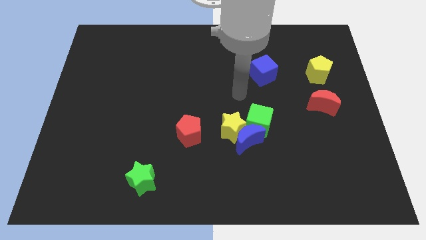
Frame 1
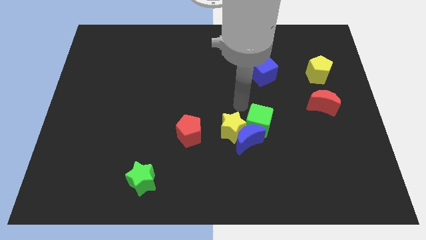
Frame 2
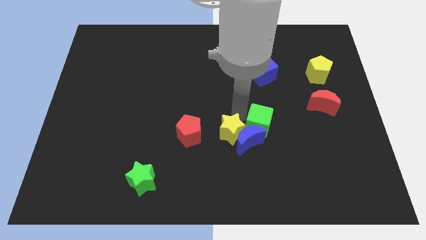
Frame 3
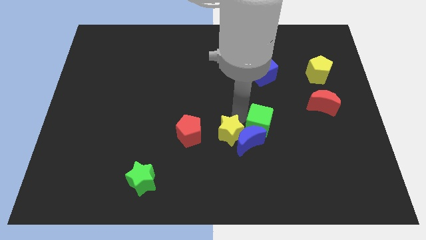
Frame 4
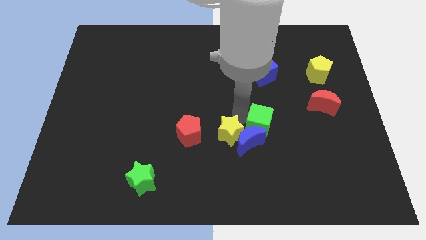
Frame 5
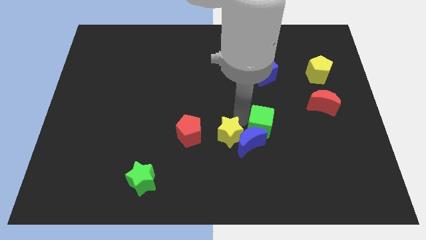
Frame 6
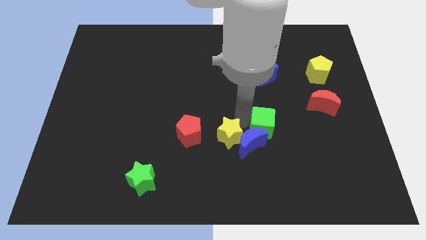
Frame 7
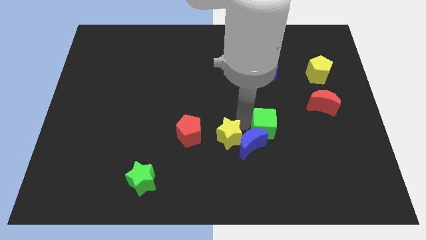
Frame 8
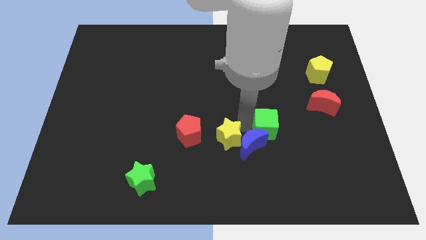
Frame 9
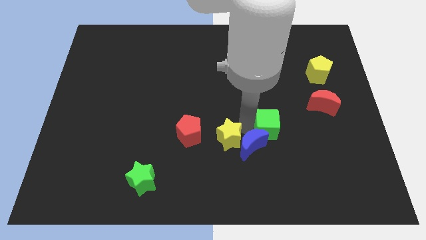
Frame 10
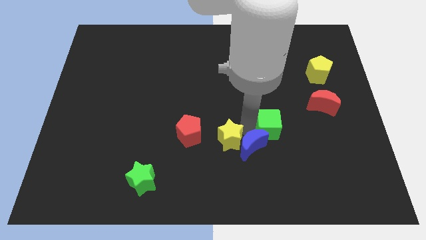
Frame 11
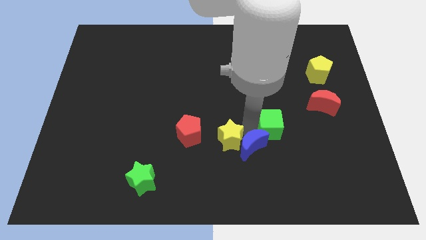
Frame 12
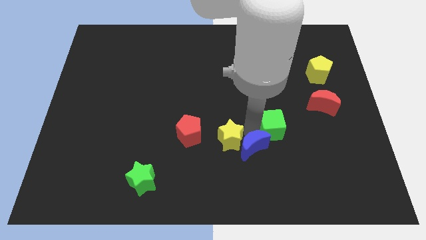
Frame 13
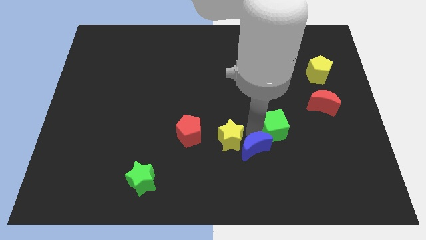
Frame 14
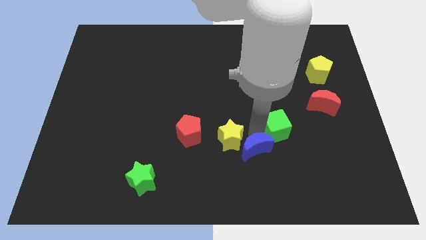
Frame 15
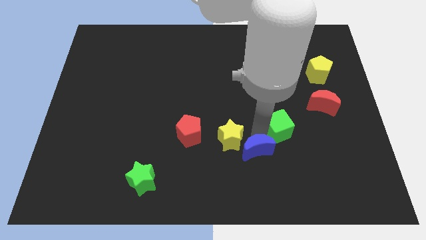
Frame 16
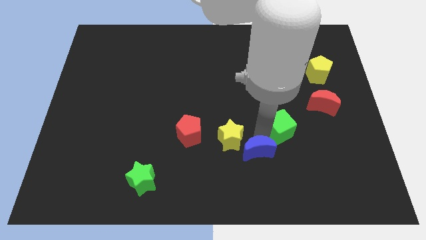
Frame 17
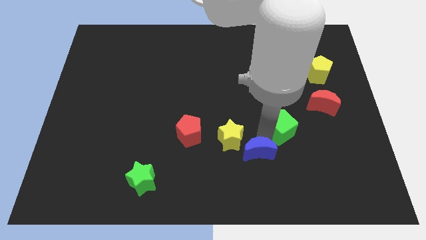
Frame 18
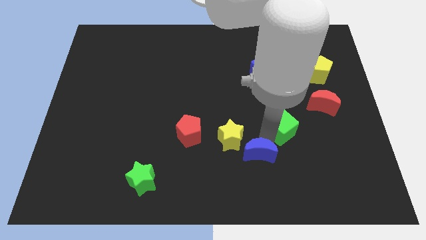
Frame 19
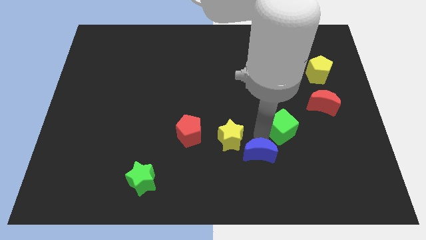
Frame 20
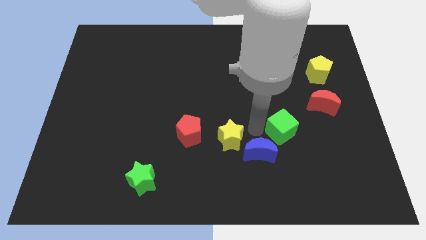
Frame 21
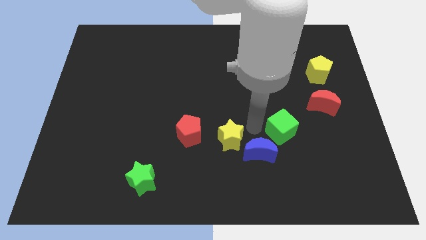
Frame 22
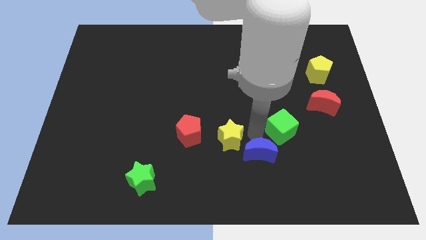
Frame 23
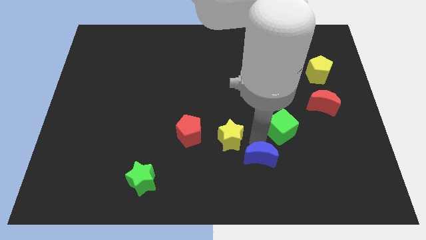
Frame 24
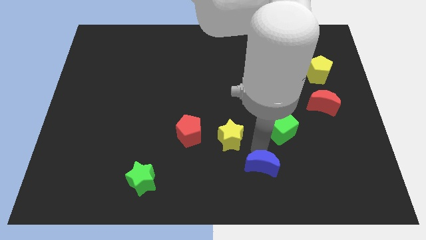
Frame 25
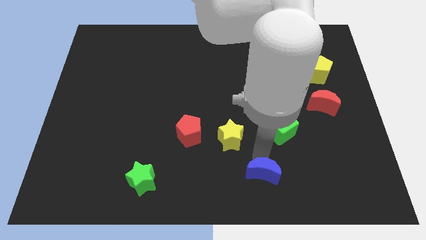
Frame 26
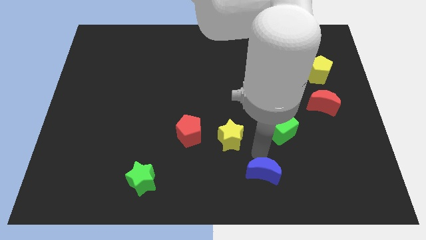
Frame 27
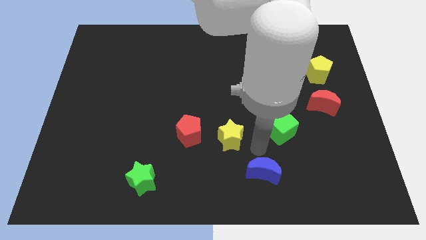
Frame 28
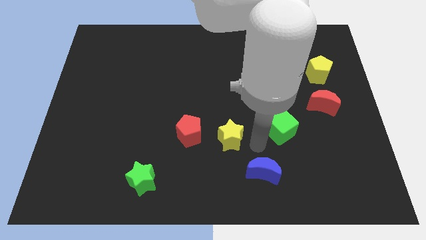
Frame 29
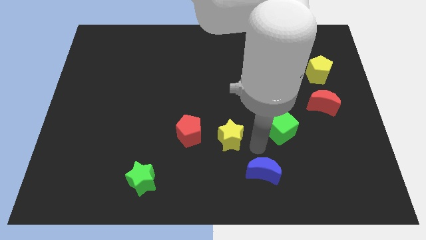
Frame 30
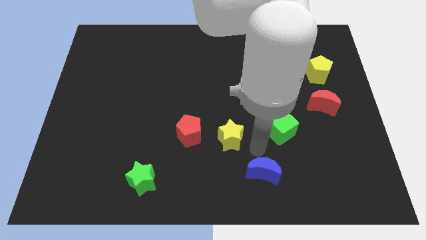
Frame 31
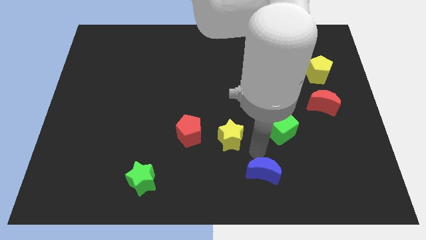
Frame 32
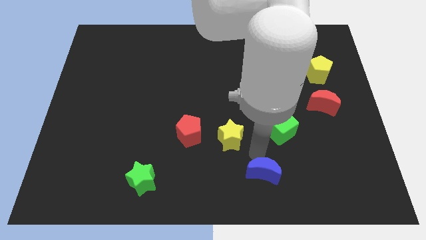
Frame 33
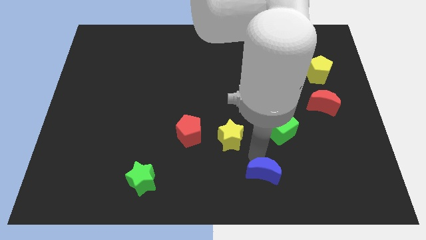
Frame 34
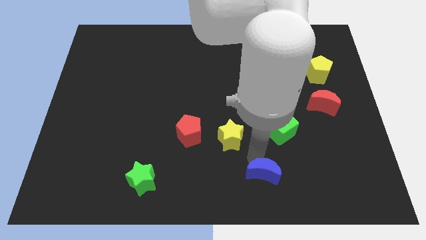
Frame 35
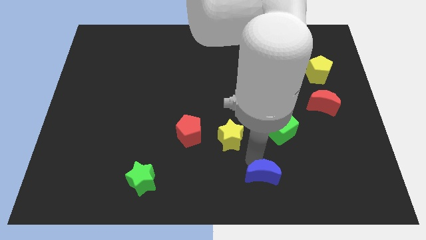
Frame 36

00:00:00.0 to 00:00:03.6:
move the blue moon away from the yellow star and green cube

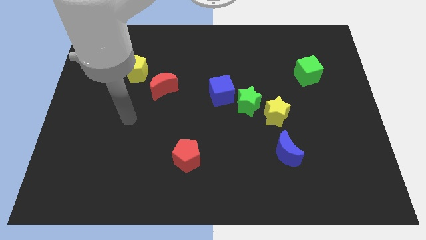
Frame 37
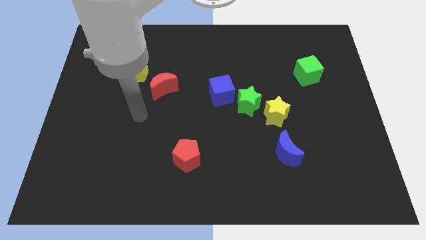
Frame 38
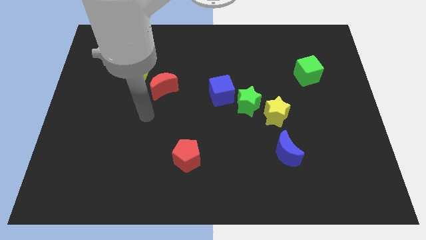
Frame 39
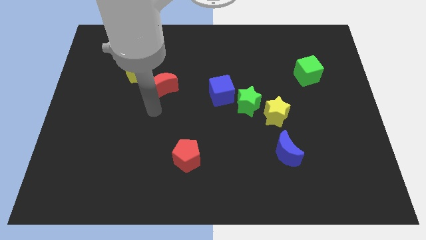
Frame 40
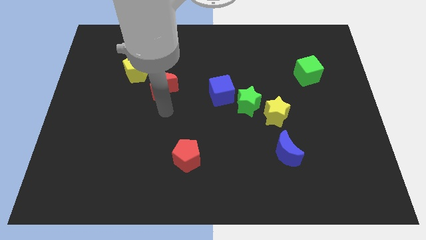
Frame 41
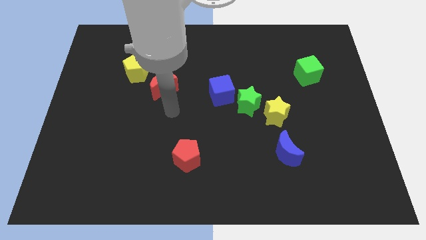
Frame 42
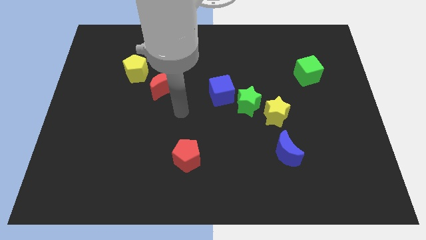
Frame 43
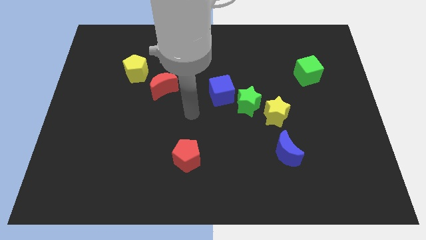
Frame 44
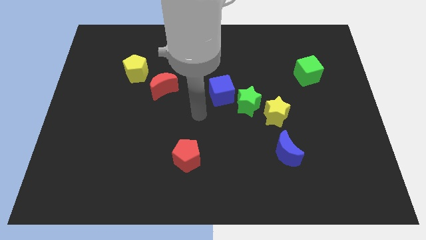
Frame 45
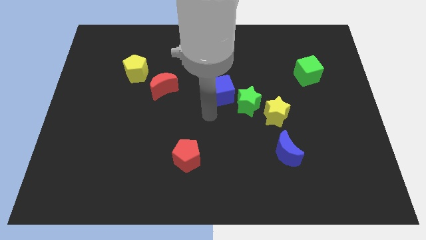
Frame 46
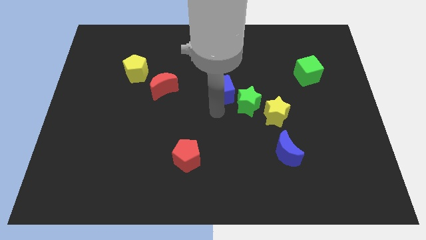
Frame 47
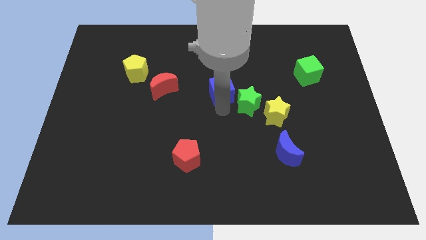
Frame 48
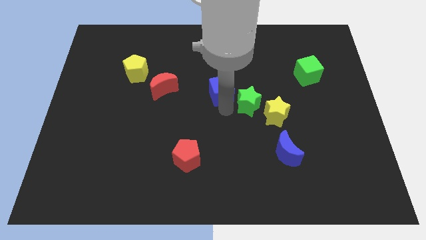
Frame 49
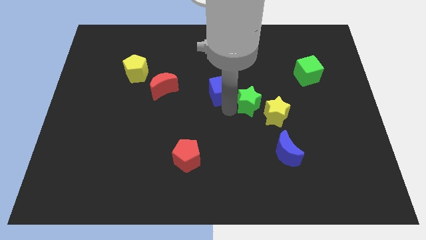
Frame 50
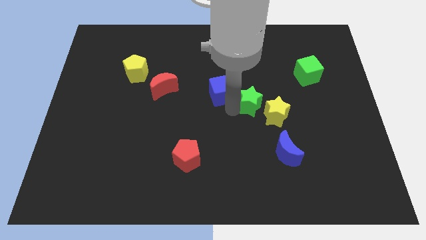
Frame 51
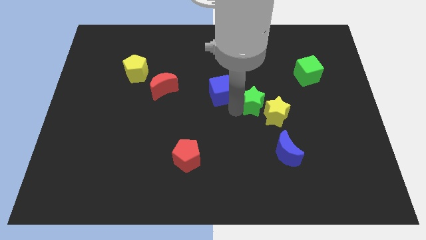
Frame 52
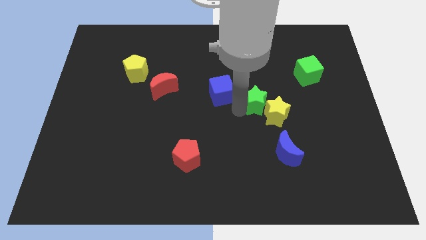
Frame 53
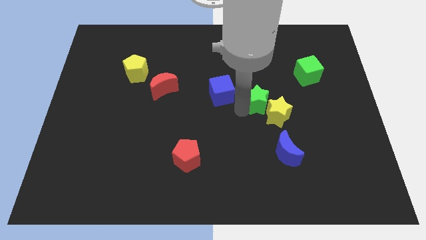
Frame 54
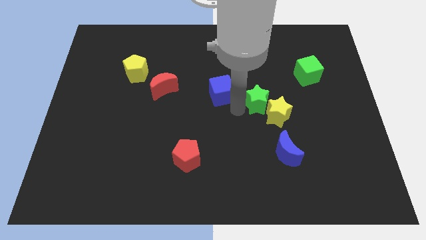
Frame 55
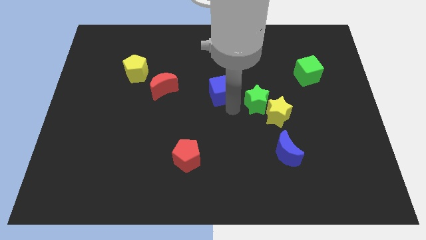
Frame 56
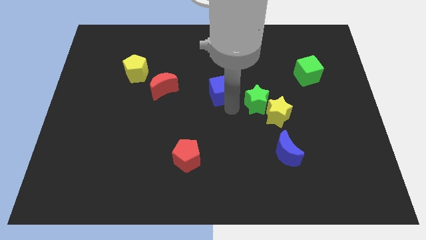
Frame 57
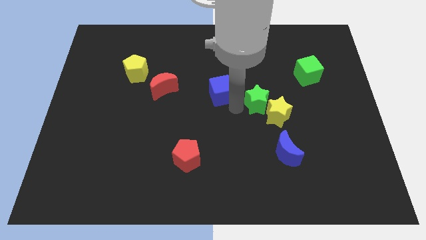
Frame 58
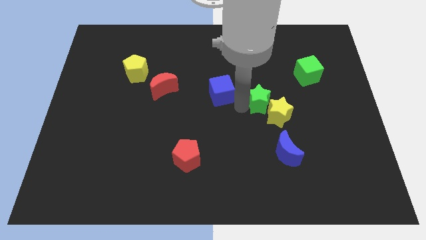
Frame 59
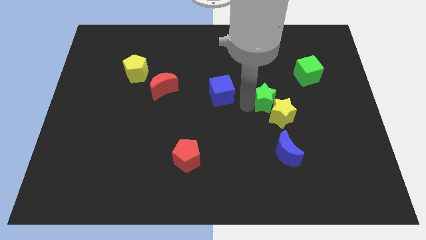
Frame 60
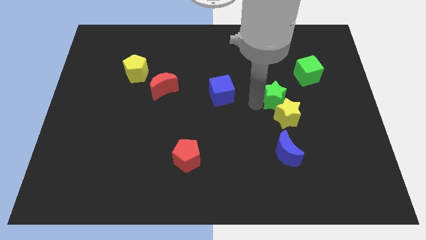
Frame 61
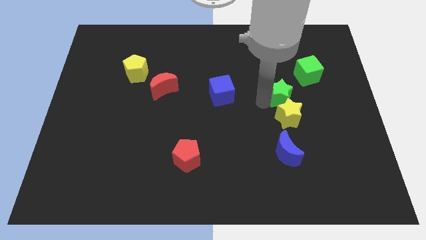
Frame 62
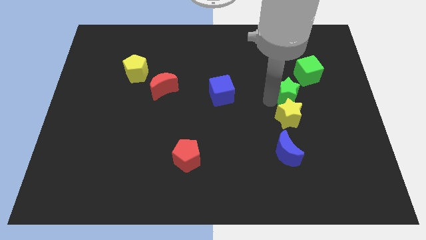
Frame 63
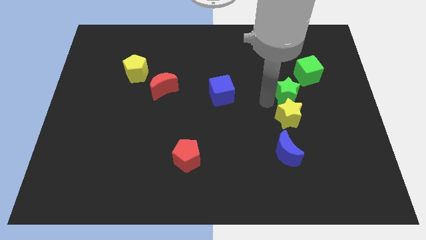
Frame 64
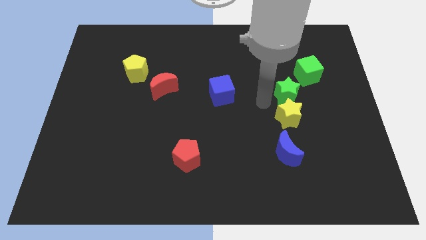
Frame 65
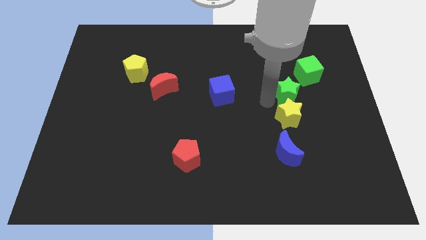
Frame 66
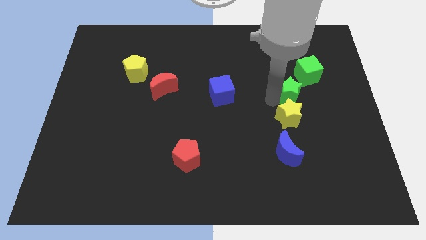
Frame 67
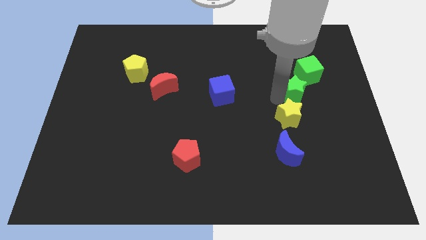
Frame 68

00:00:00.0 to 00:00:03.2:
pull the green star apart from the yellow star and blue cube

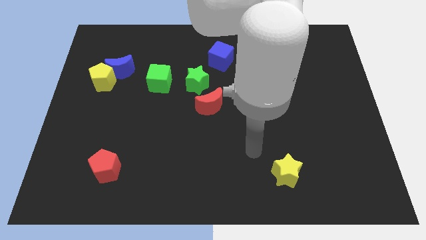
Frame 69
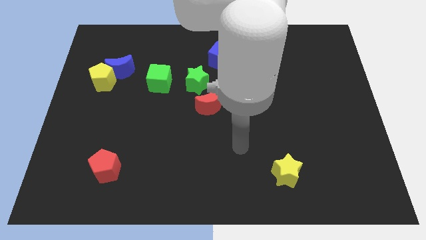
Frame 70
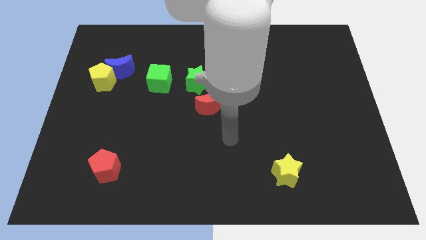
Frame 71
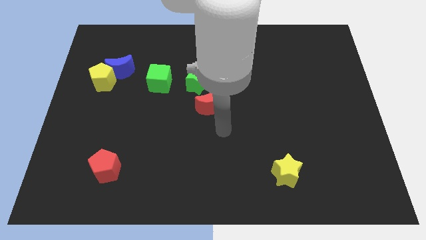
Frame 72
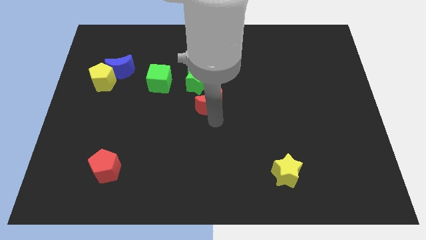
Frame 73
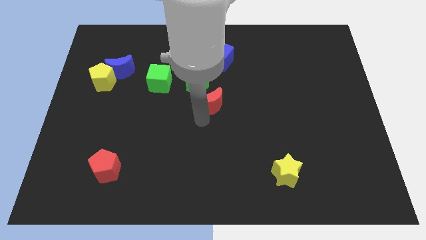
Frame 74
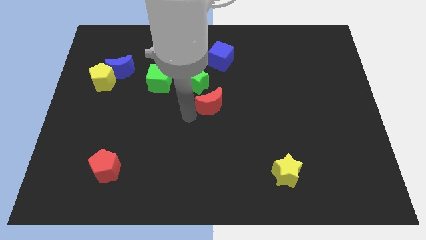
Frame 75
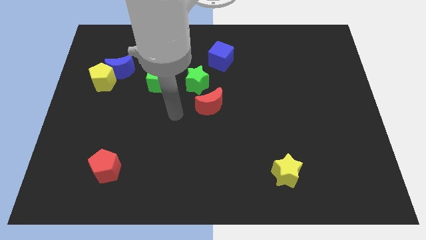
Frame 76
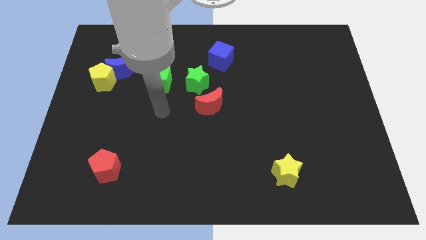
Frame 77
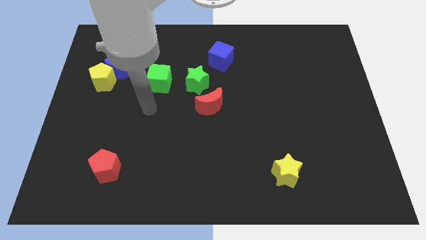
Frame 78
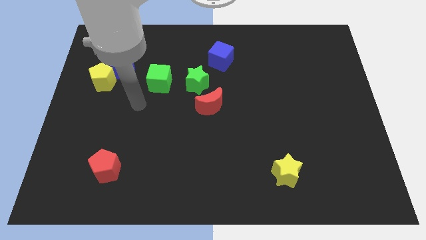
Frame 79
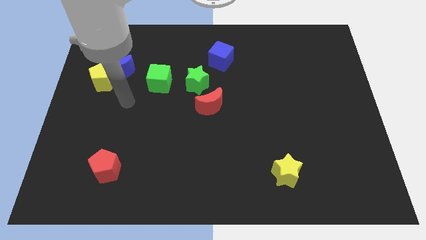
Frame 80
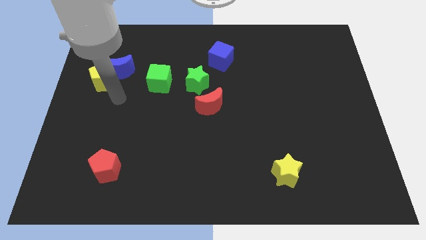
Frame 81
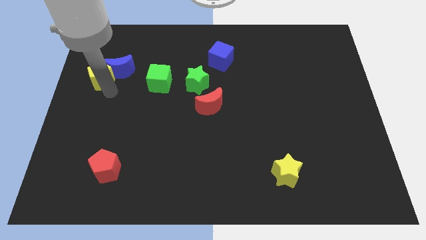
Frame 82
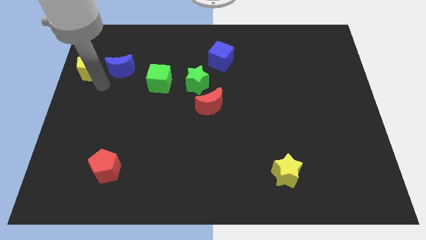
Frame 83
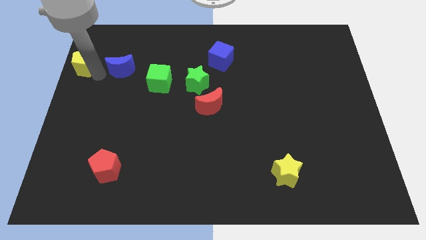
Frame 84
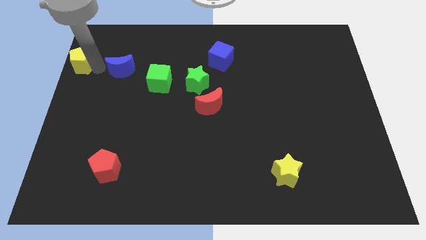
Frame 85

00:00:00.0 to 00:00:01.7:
pull the blue moon apart from the yellow pentagon

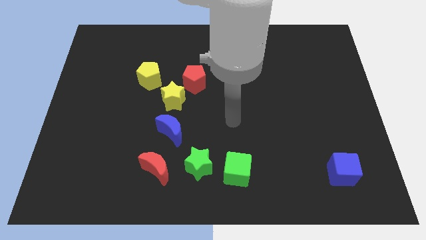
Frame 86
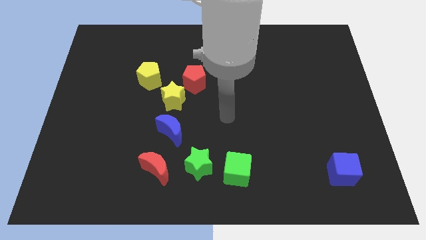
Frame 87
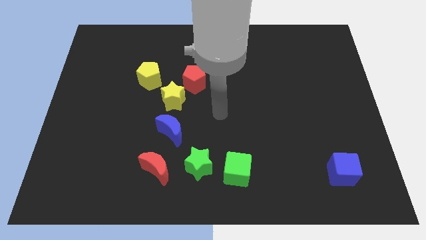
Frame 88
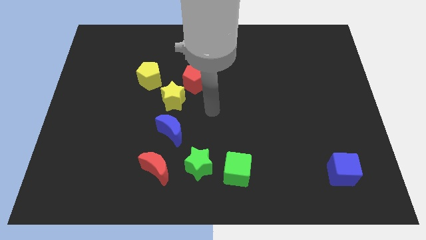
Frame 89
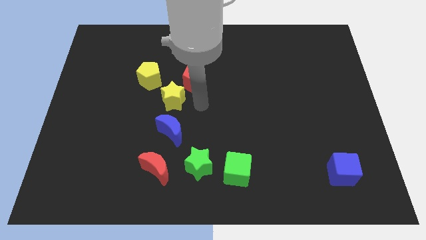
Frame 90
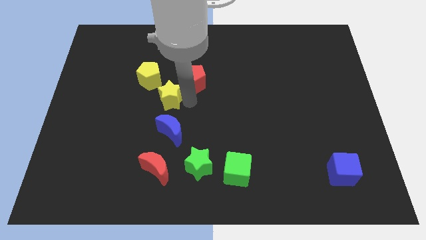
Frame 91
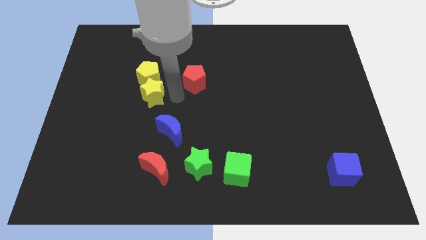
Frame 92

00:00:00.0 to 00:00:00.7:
pull the red pentagon apart from the yellow star

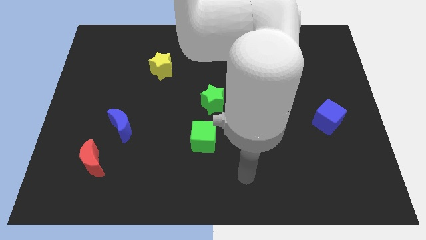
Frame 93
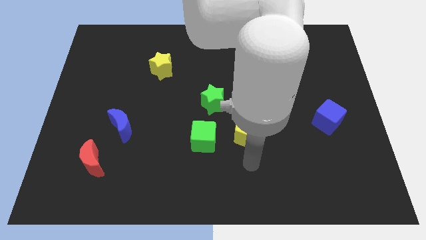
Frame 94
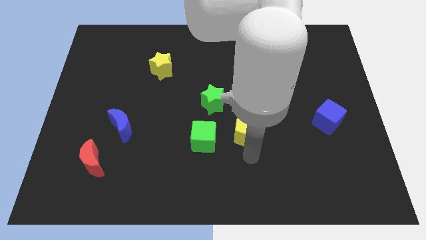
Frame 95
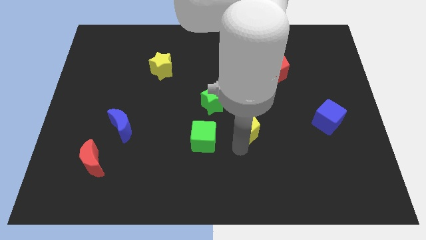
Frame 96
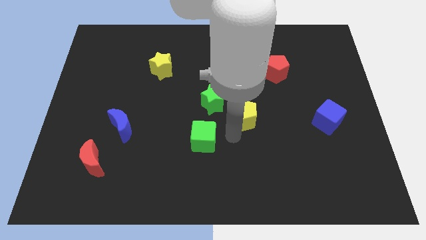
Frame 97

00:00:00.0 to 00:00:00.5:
pull the green cube apart from the yellow pentagon
